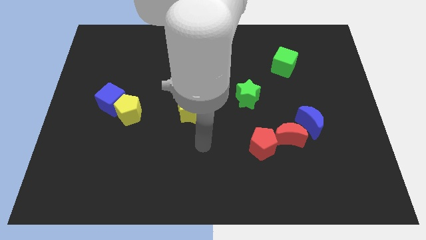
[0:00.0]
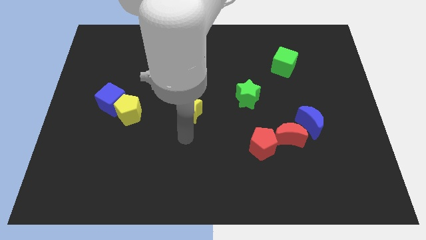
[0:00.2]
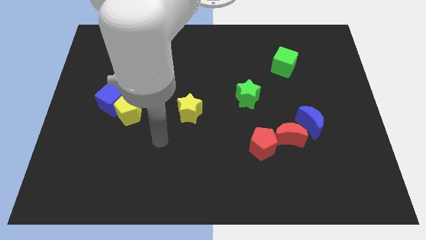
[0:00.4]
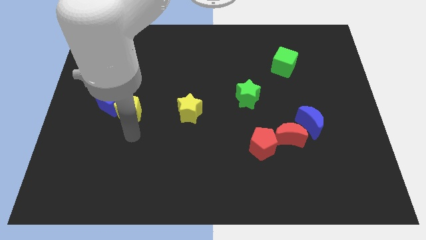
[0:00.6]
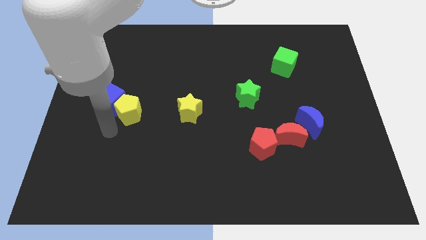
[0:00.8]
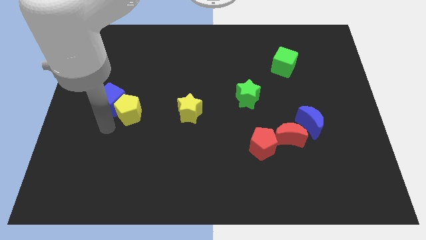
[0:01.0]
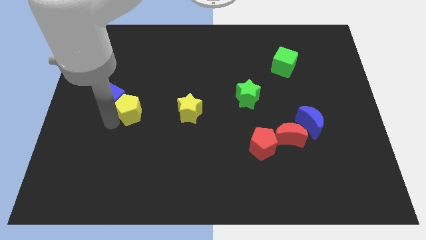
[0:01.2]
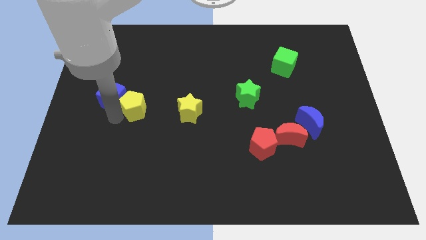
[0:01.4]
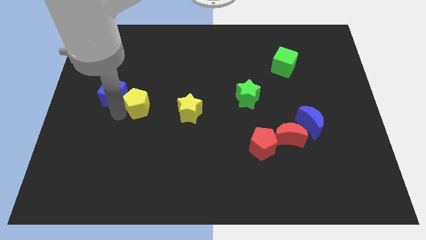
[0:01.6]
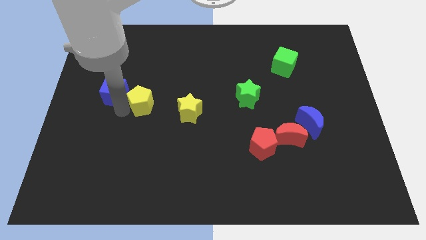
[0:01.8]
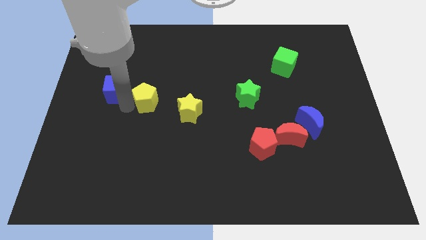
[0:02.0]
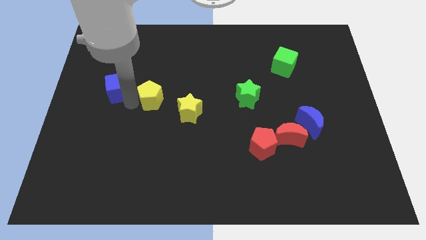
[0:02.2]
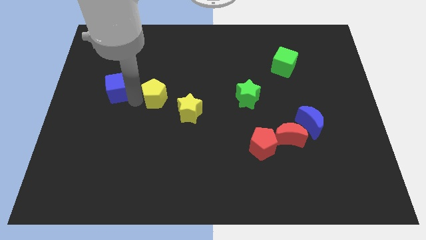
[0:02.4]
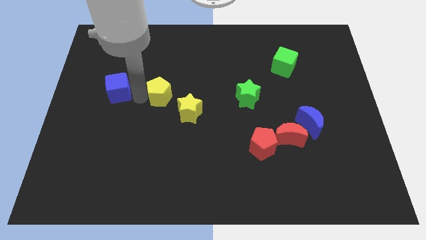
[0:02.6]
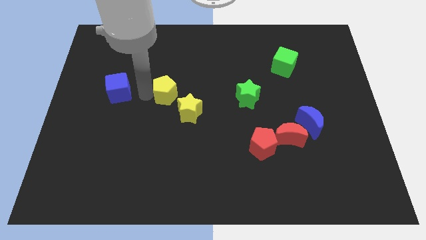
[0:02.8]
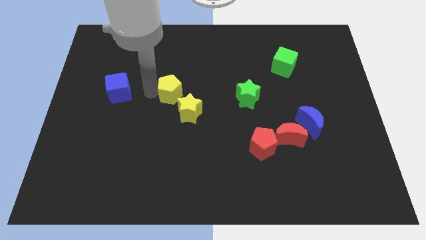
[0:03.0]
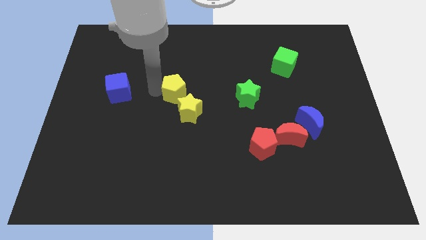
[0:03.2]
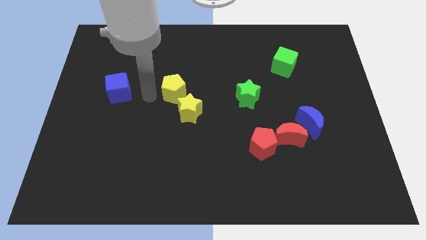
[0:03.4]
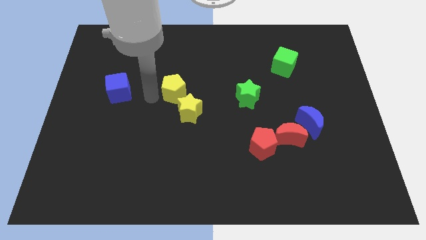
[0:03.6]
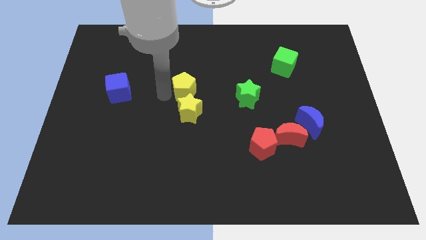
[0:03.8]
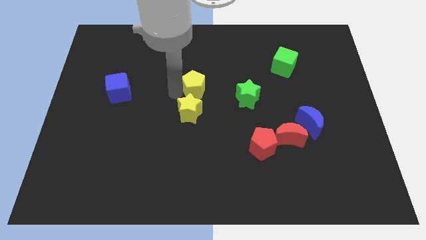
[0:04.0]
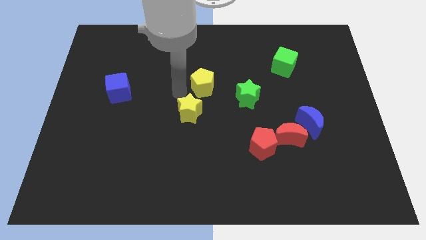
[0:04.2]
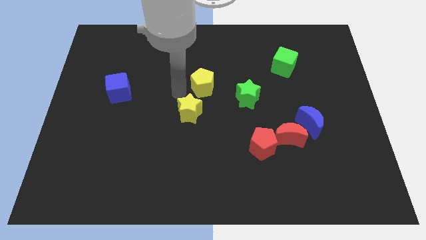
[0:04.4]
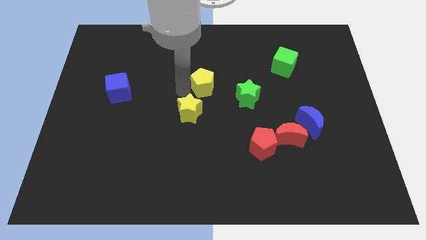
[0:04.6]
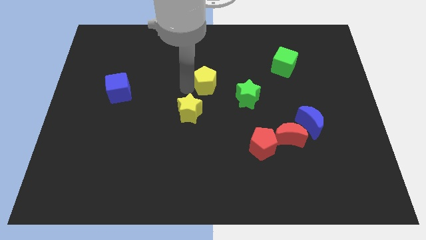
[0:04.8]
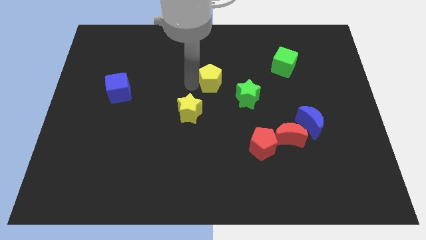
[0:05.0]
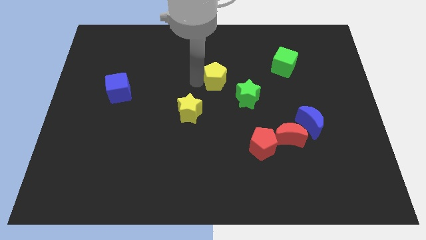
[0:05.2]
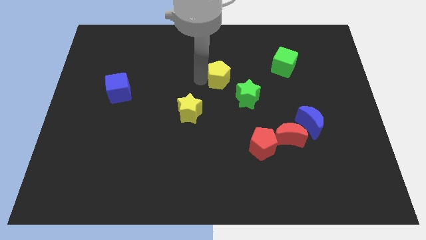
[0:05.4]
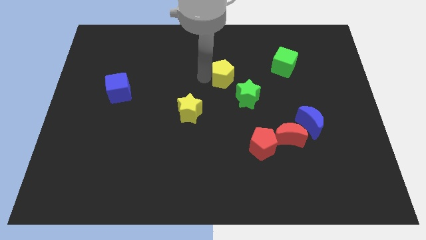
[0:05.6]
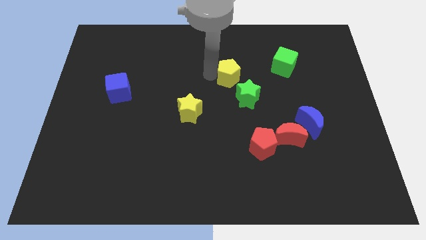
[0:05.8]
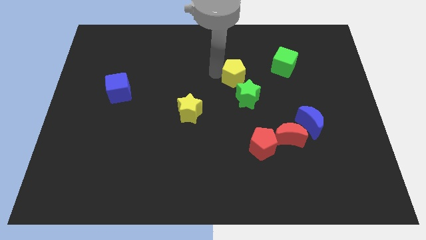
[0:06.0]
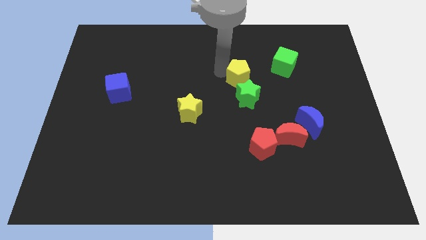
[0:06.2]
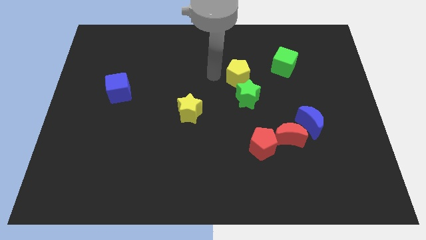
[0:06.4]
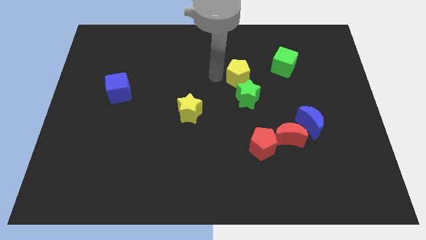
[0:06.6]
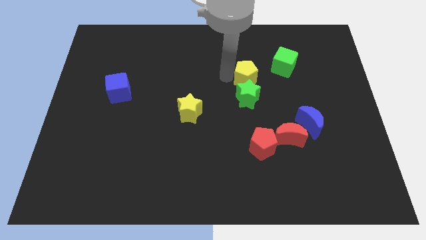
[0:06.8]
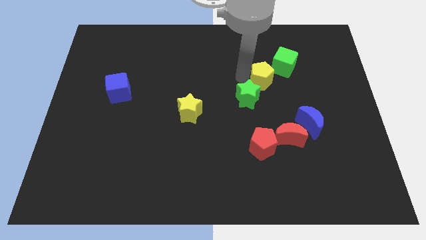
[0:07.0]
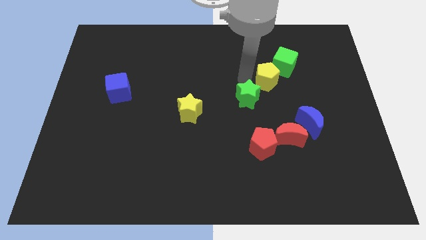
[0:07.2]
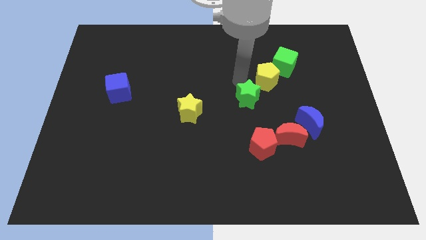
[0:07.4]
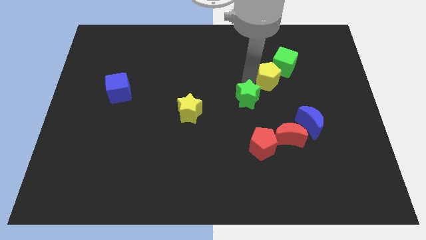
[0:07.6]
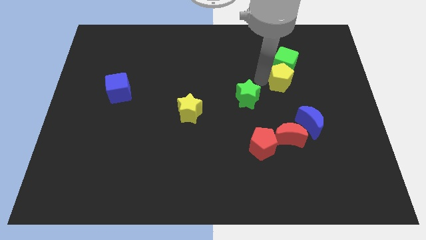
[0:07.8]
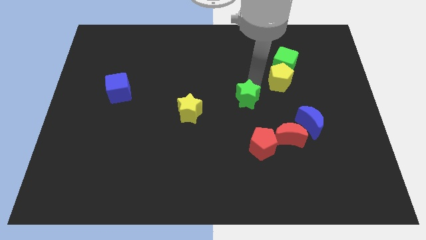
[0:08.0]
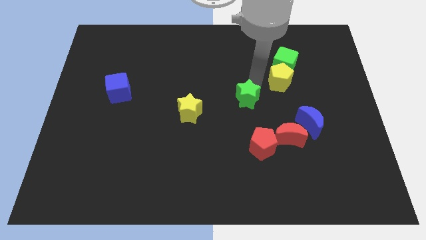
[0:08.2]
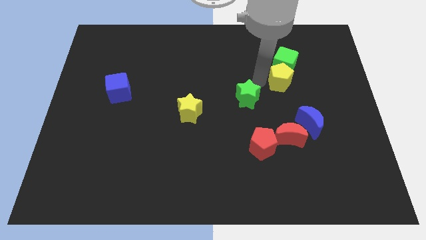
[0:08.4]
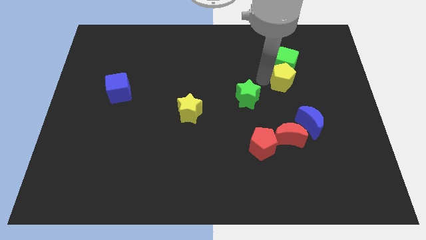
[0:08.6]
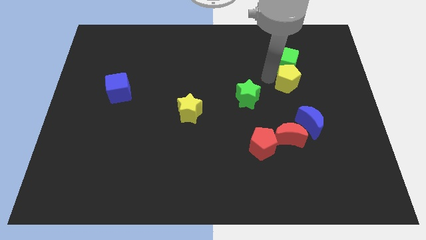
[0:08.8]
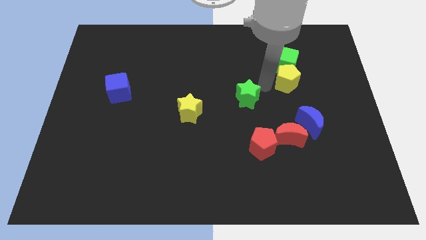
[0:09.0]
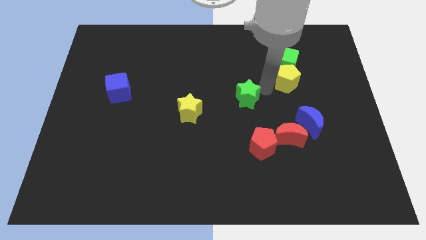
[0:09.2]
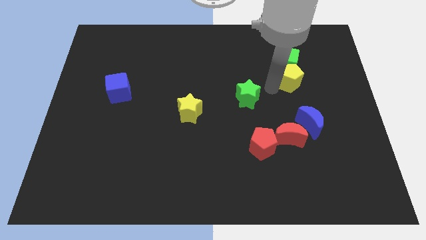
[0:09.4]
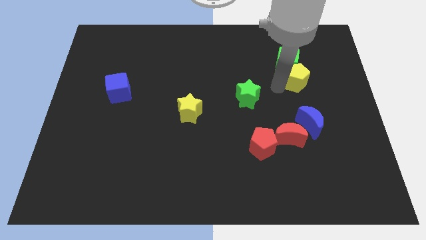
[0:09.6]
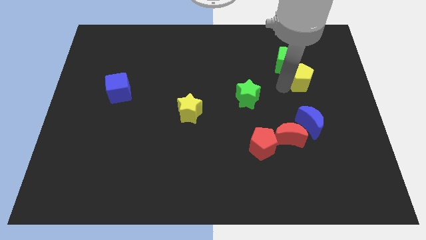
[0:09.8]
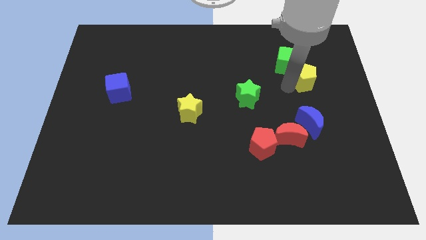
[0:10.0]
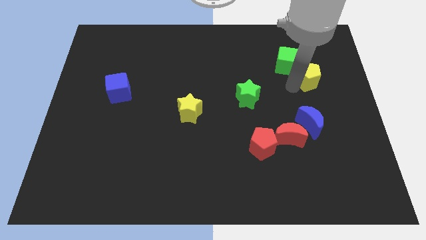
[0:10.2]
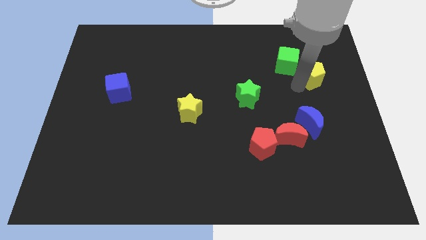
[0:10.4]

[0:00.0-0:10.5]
move the yellow pentagon to the right of the green cube

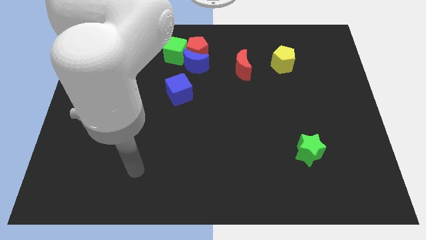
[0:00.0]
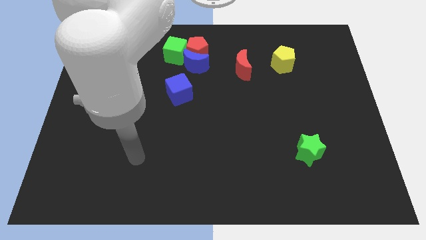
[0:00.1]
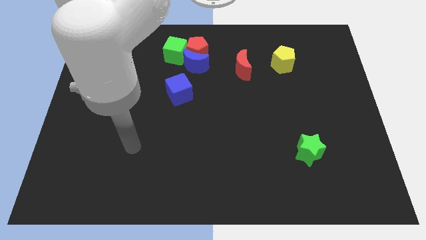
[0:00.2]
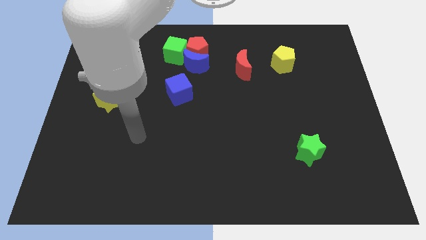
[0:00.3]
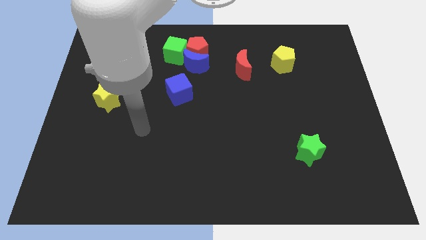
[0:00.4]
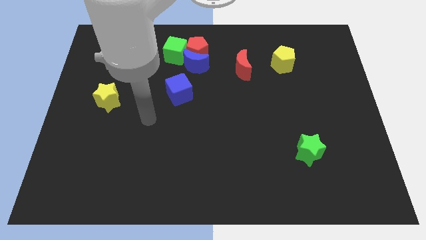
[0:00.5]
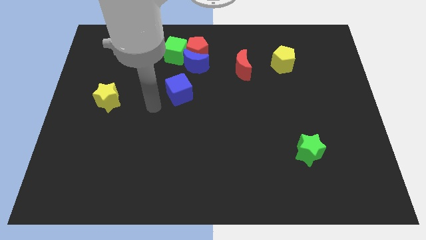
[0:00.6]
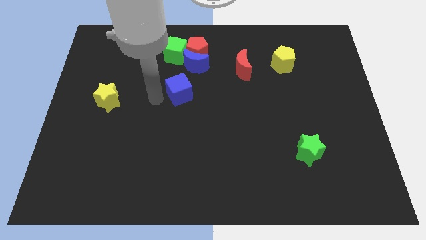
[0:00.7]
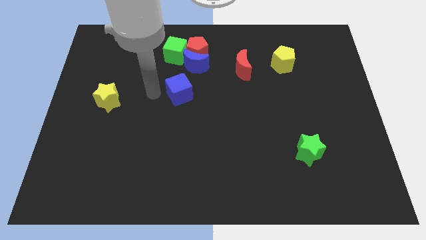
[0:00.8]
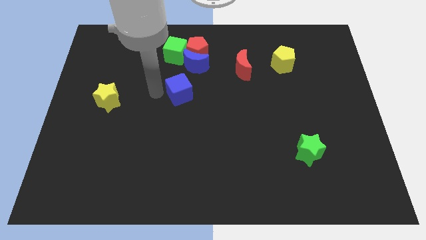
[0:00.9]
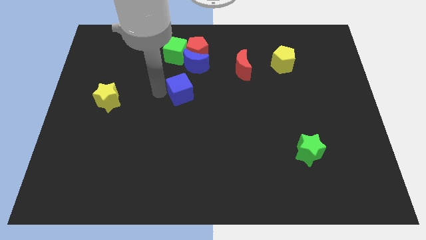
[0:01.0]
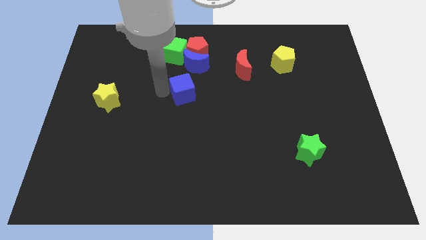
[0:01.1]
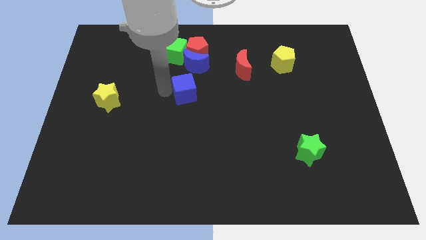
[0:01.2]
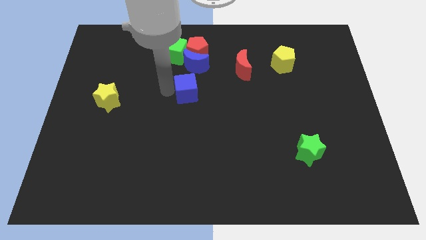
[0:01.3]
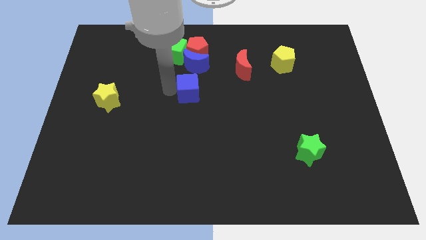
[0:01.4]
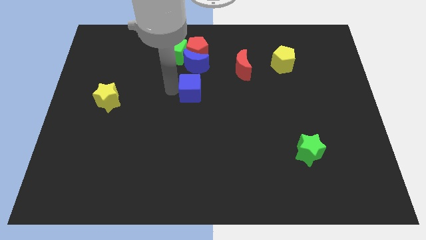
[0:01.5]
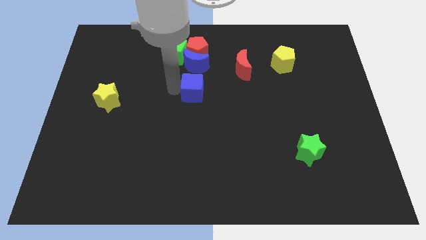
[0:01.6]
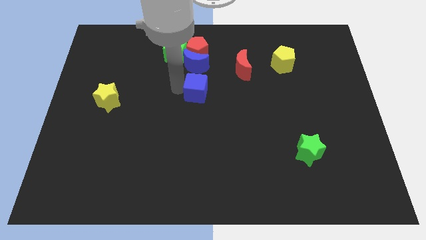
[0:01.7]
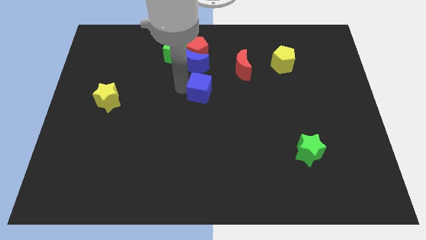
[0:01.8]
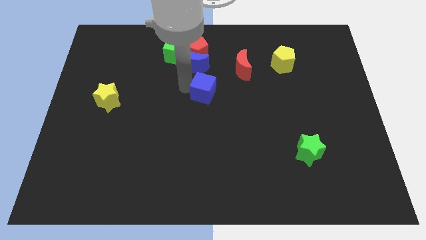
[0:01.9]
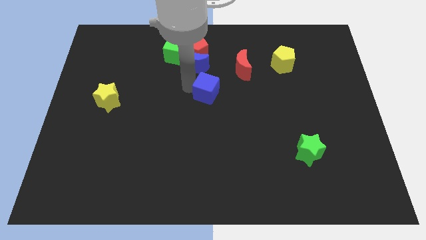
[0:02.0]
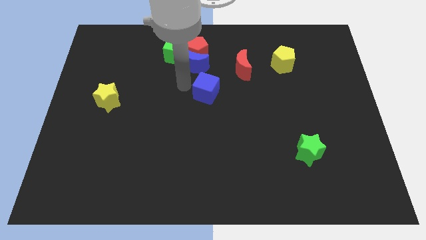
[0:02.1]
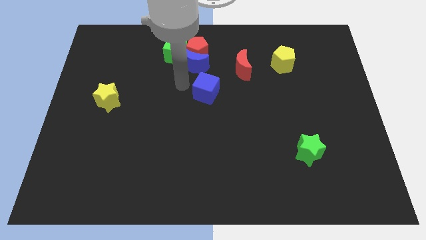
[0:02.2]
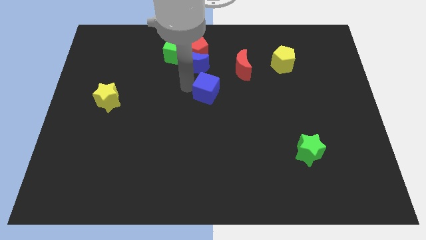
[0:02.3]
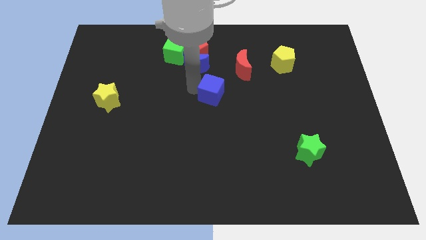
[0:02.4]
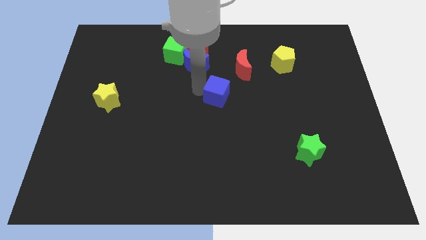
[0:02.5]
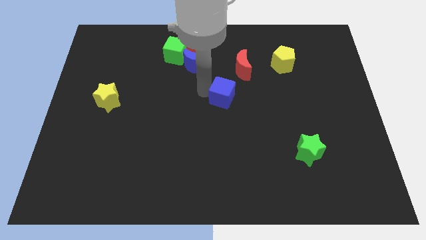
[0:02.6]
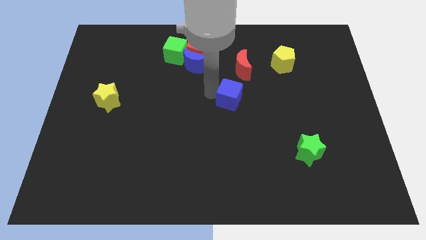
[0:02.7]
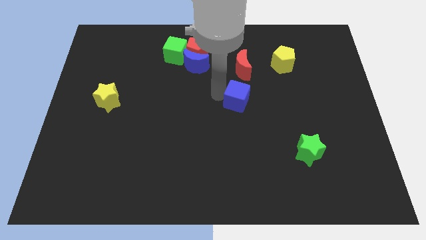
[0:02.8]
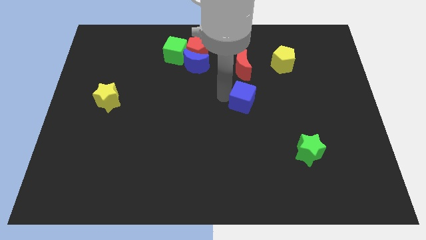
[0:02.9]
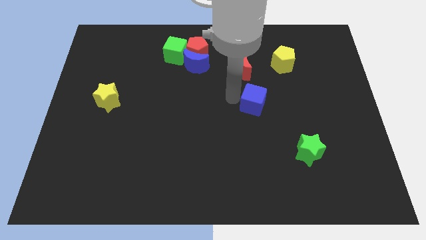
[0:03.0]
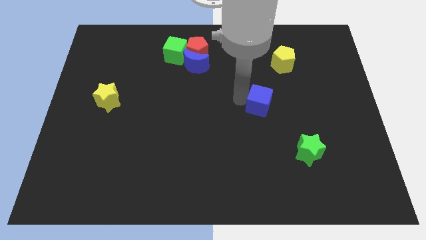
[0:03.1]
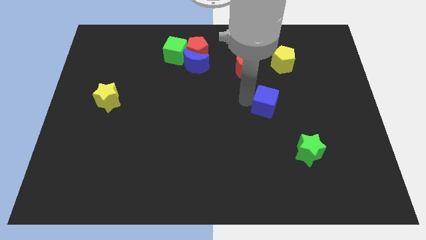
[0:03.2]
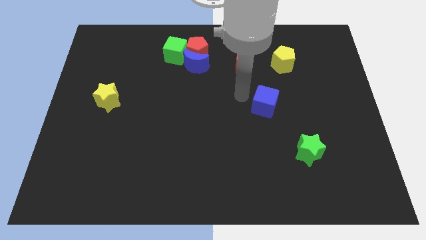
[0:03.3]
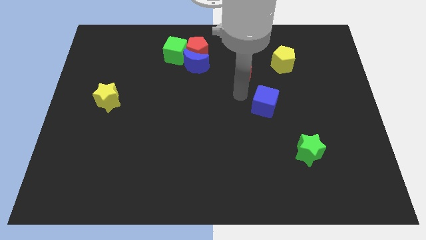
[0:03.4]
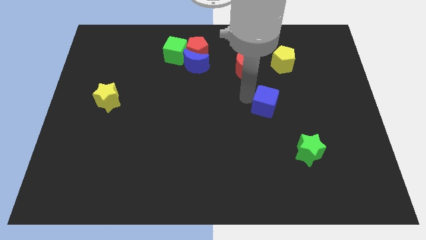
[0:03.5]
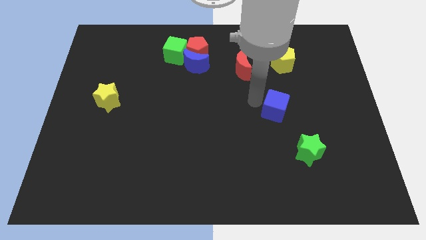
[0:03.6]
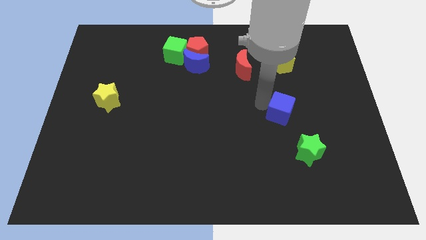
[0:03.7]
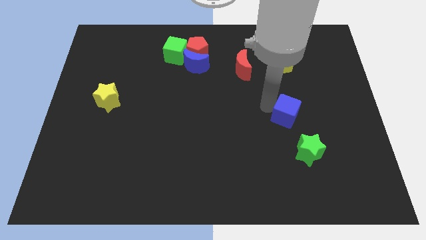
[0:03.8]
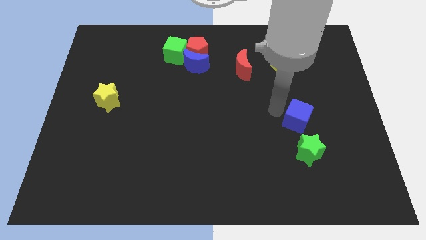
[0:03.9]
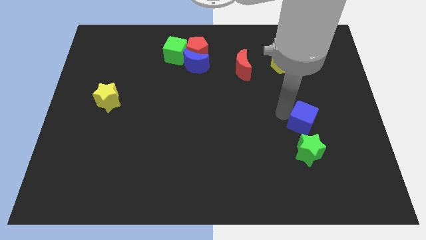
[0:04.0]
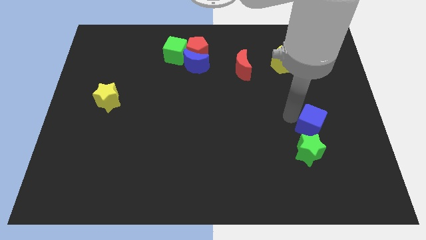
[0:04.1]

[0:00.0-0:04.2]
put the blue cube to the top right of the green star
